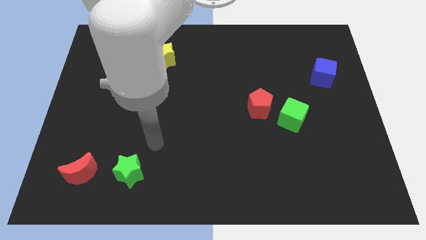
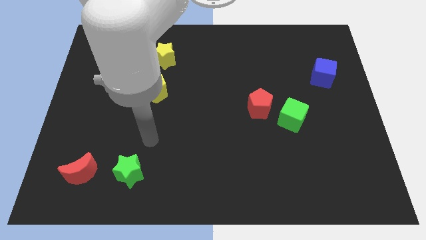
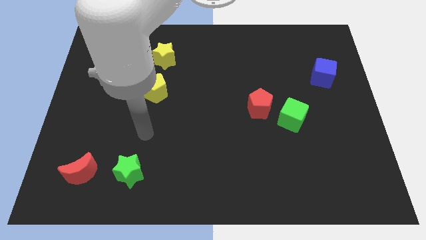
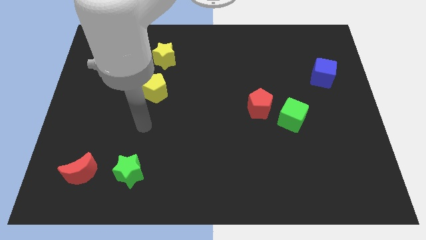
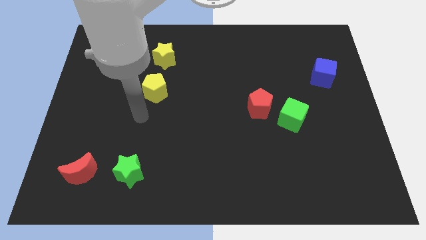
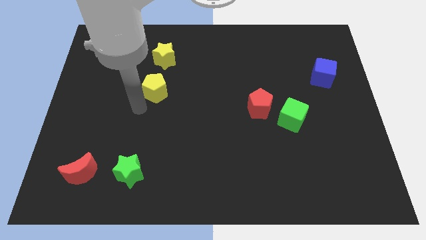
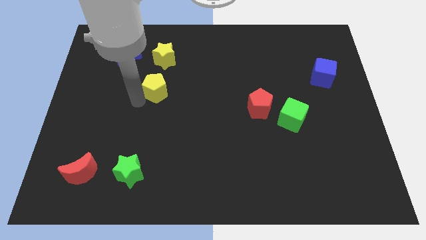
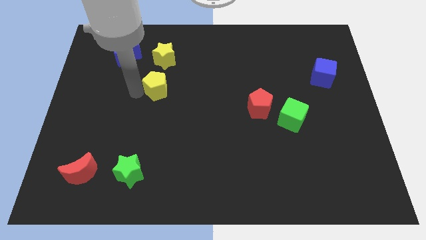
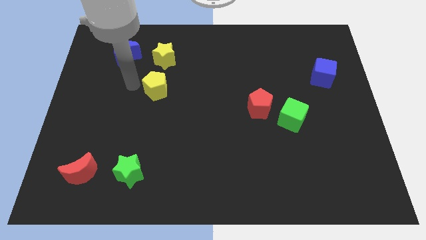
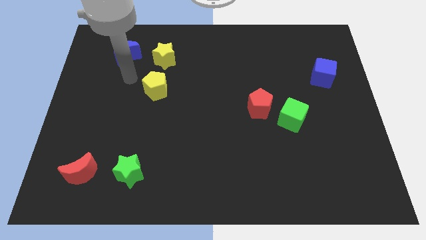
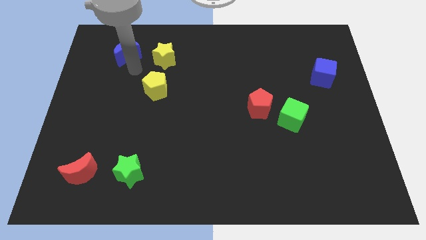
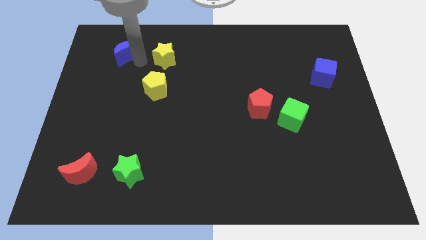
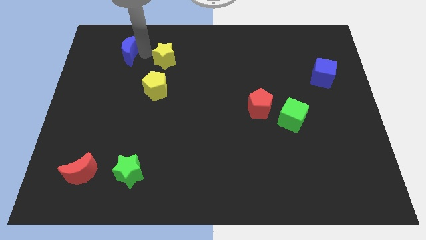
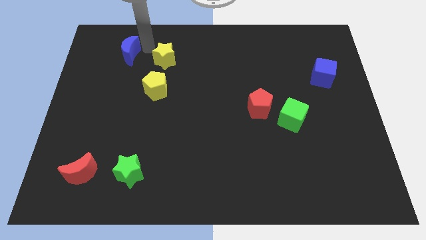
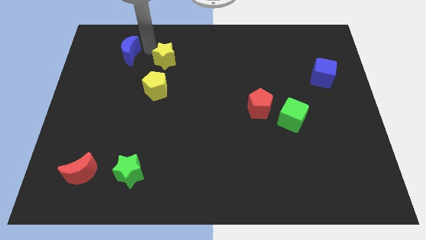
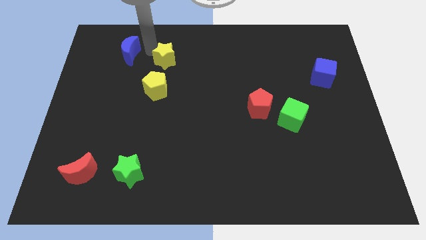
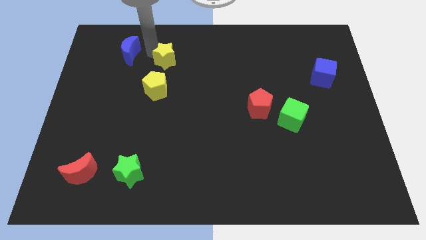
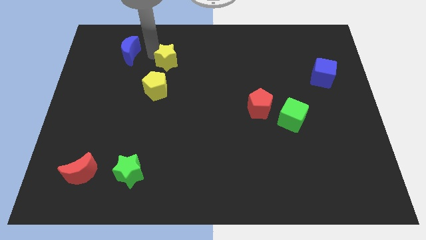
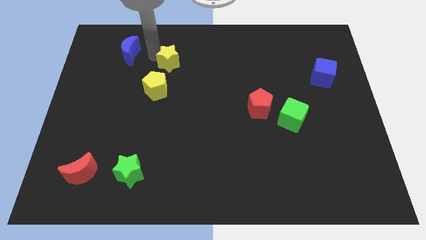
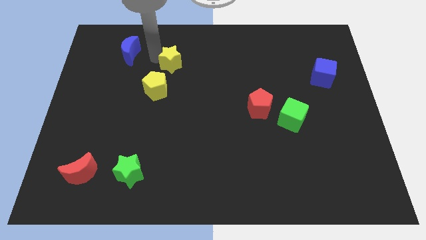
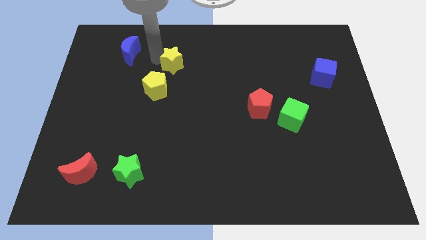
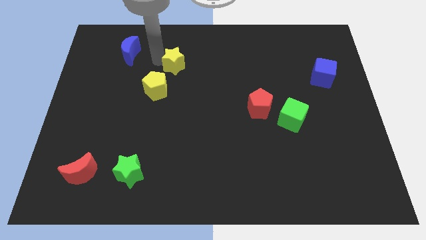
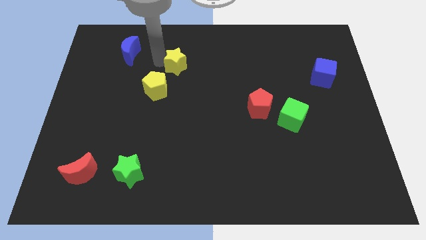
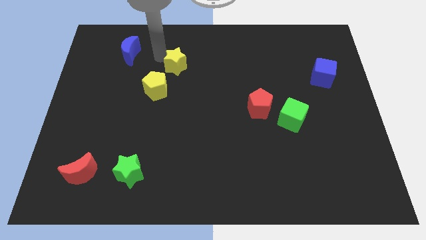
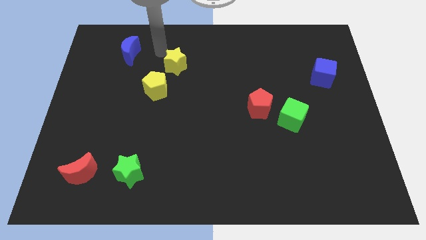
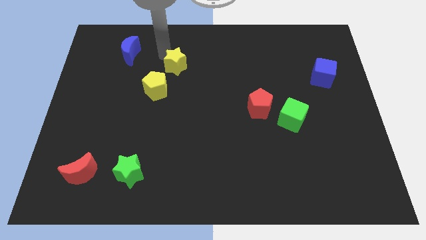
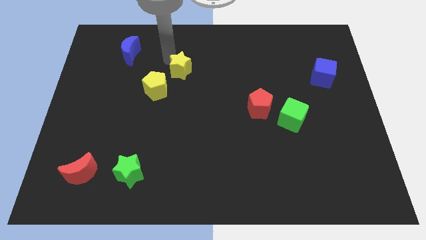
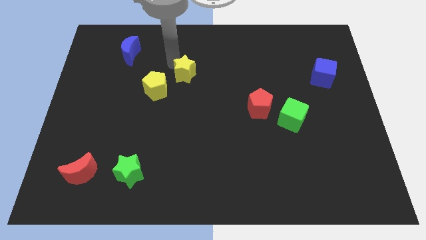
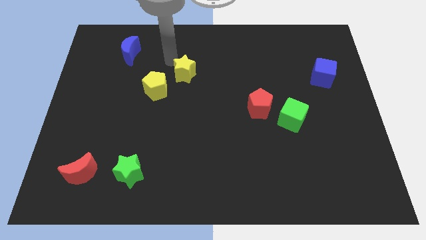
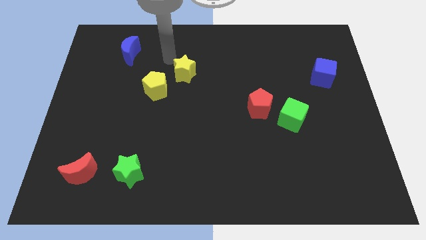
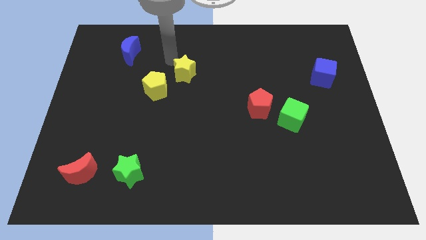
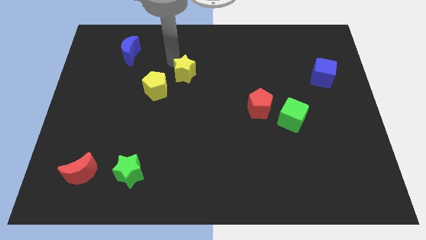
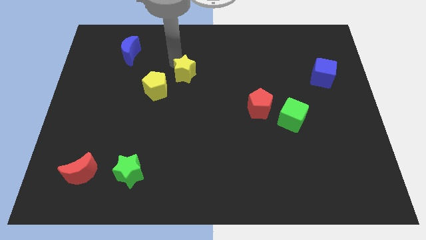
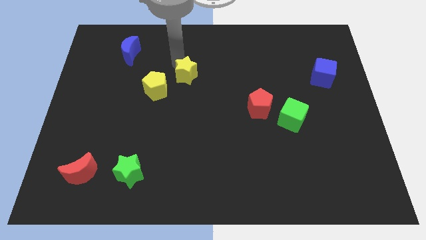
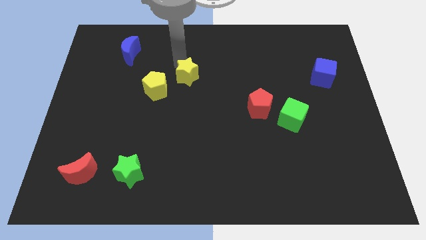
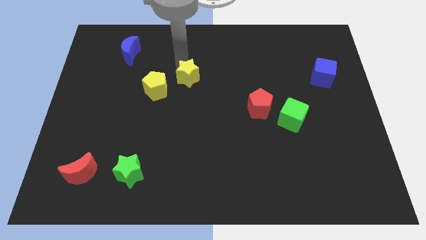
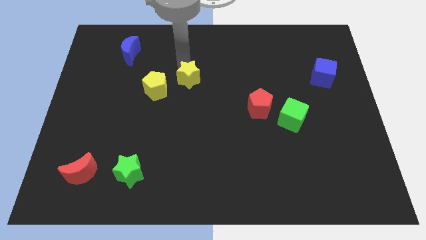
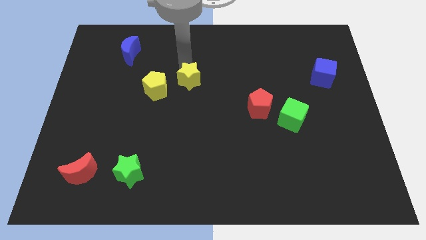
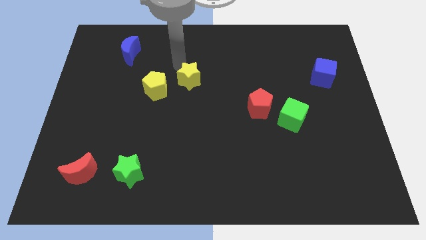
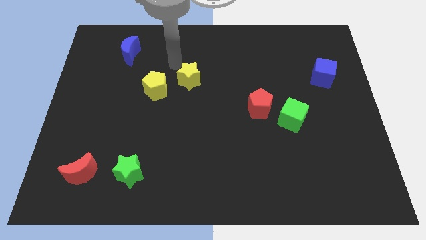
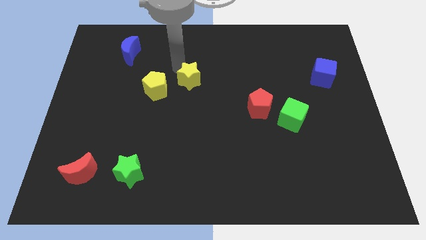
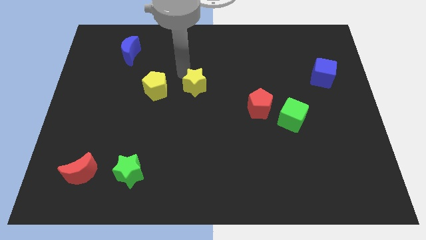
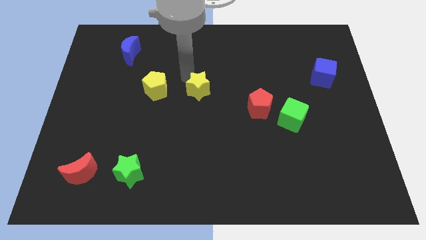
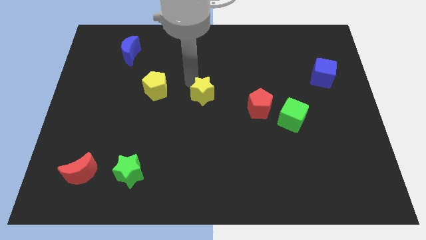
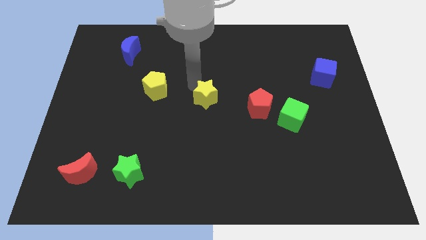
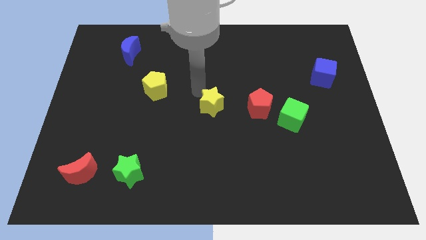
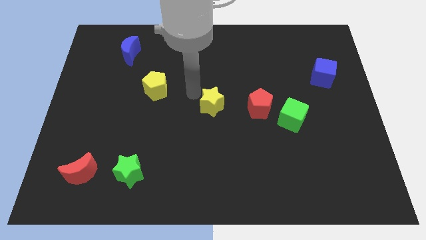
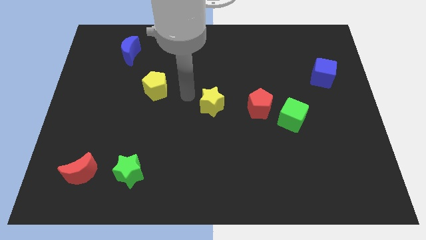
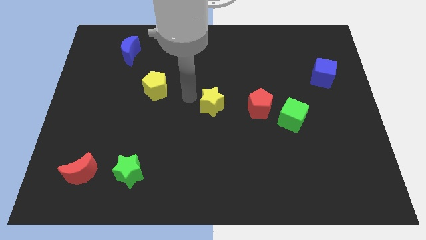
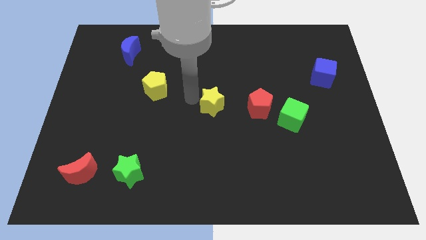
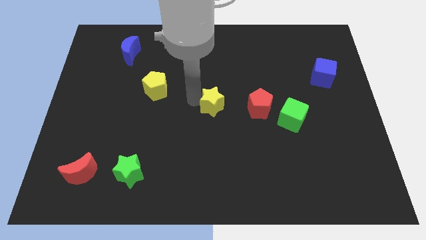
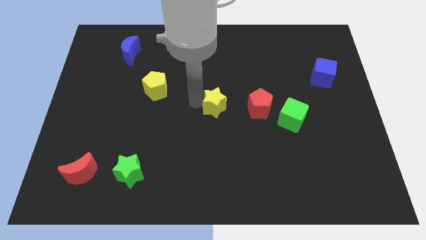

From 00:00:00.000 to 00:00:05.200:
push the yellow star down and to the right

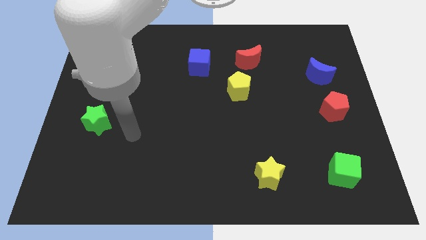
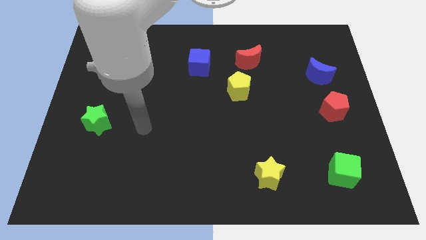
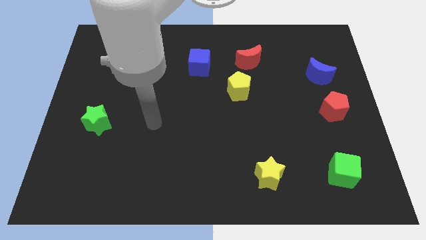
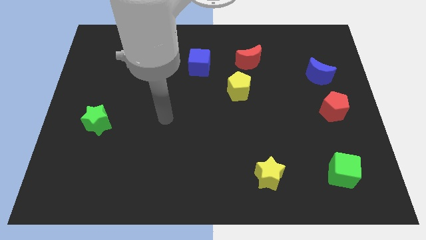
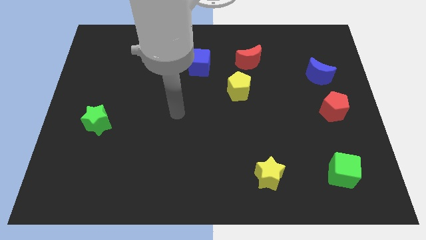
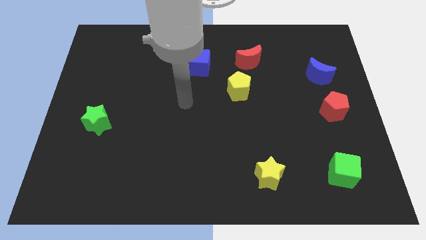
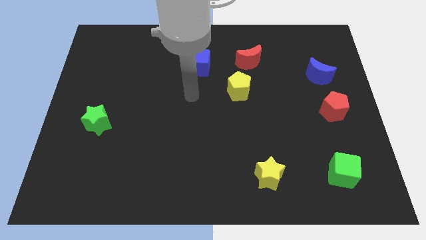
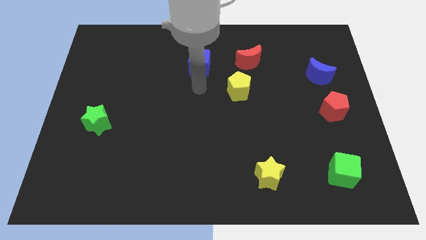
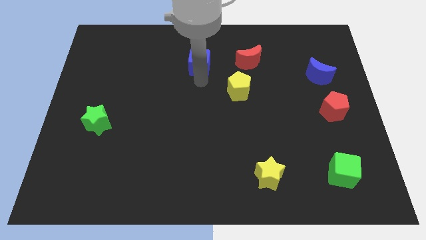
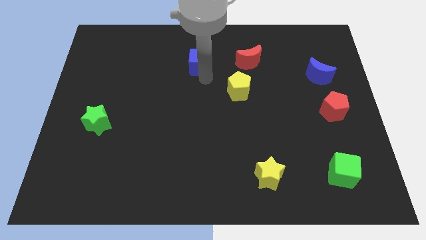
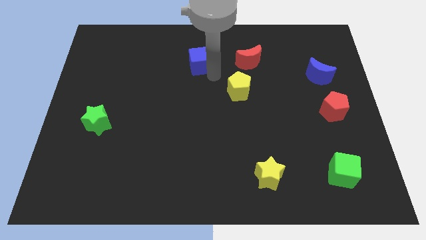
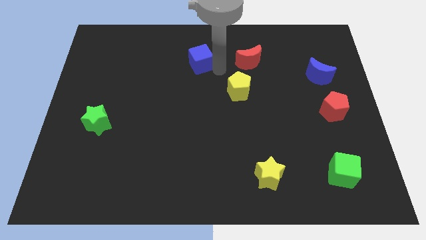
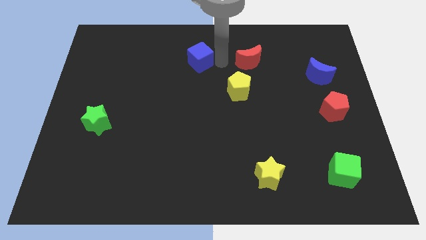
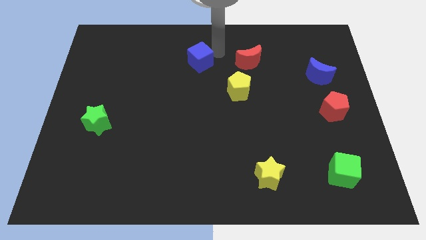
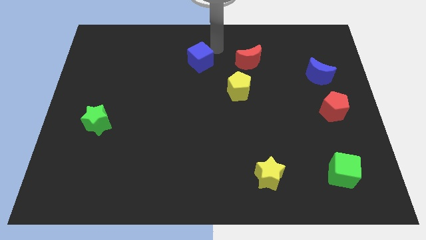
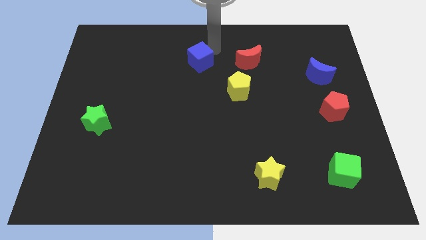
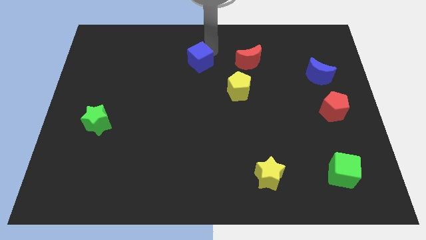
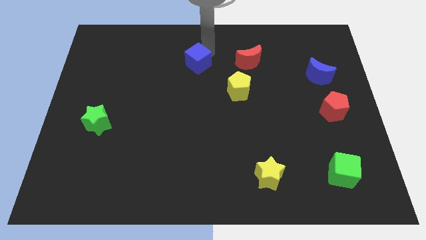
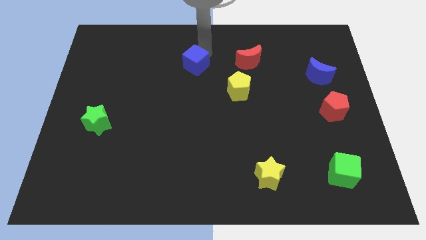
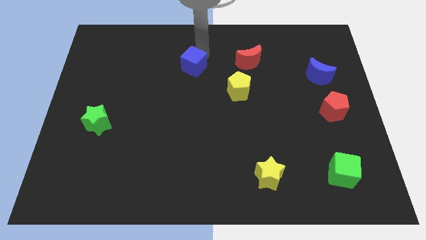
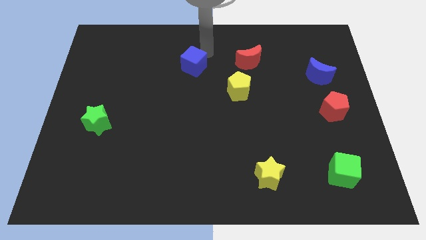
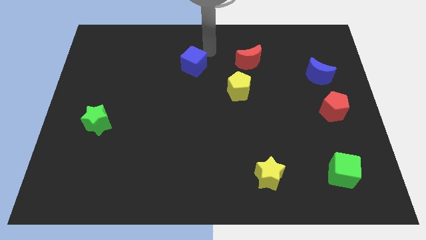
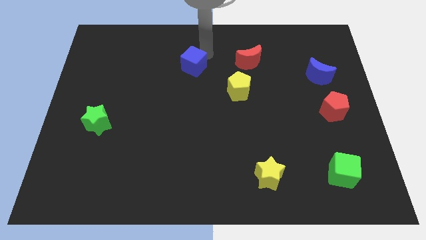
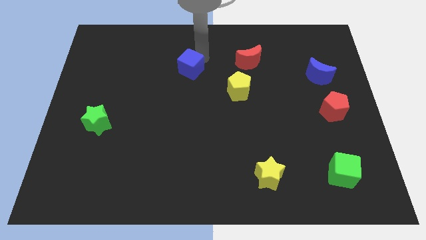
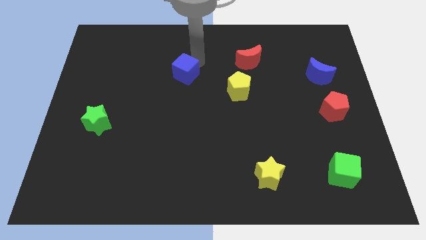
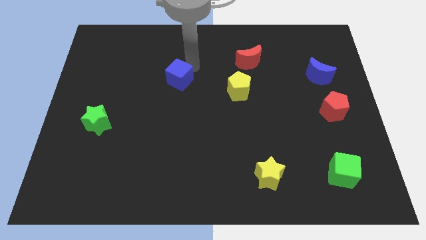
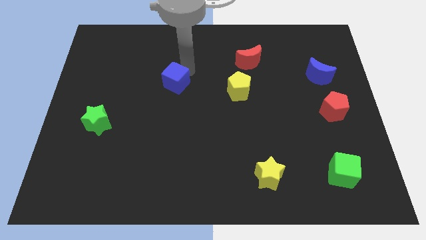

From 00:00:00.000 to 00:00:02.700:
slide the blue cube somewhat diagonally downwards and to the left
